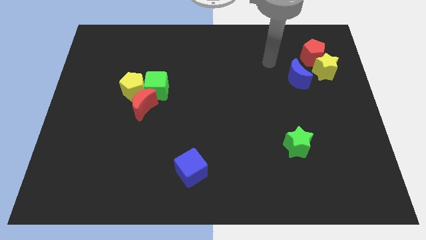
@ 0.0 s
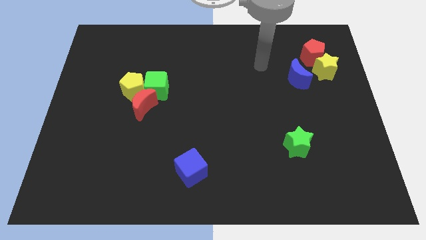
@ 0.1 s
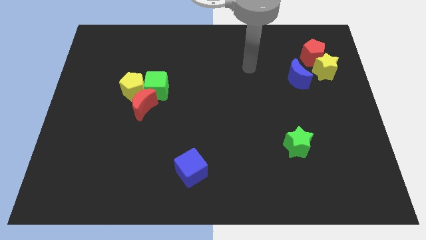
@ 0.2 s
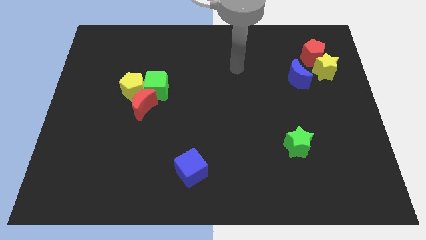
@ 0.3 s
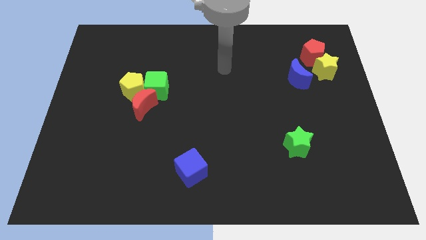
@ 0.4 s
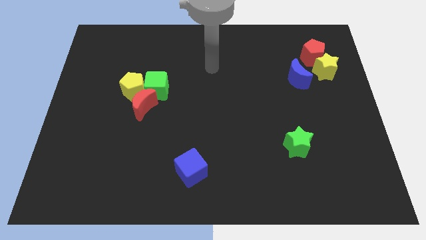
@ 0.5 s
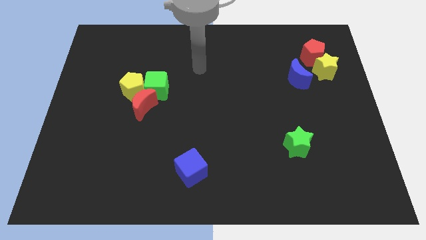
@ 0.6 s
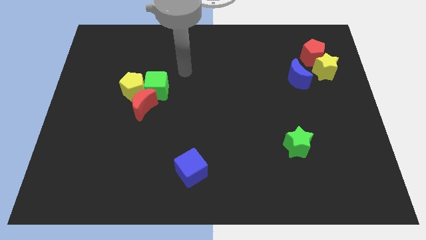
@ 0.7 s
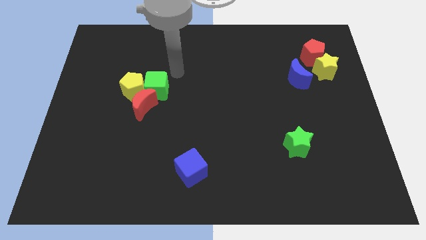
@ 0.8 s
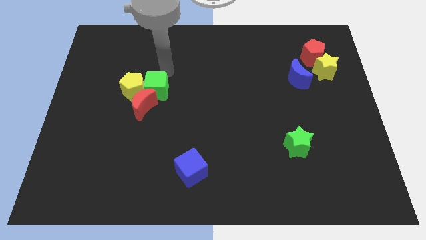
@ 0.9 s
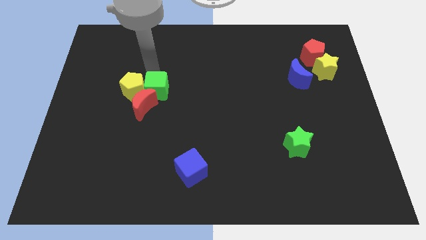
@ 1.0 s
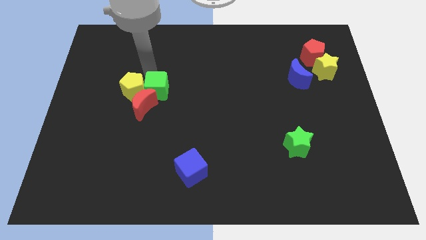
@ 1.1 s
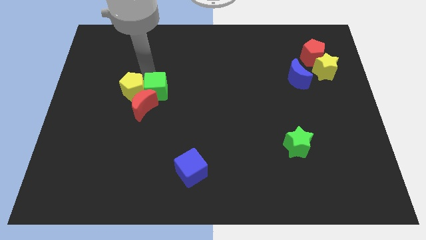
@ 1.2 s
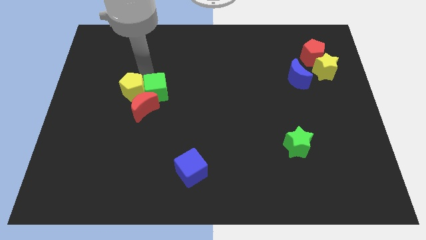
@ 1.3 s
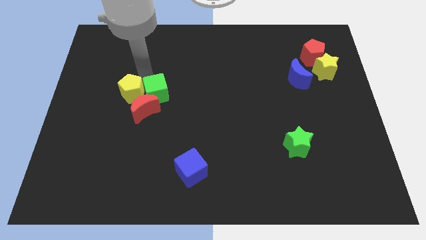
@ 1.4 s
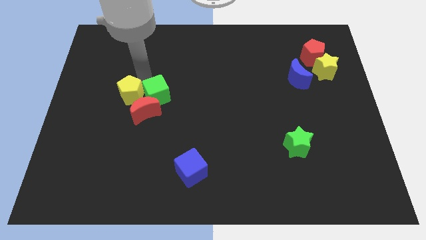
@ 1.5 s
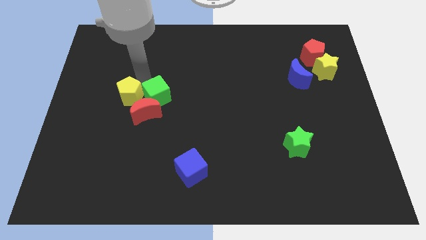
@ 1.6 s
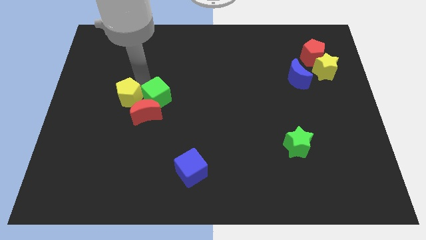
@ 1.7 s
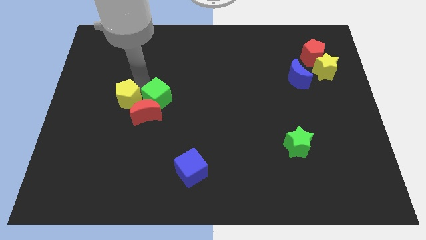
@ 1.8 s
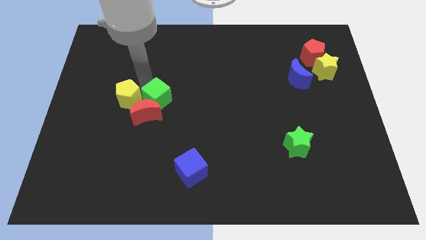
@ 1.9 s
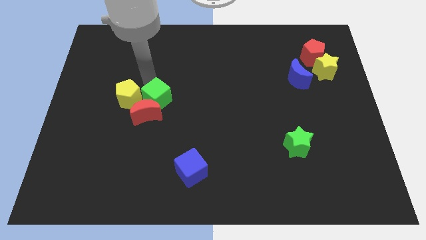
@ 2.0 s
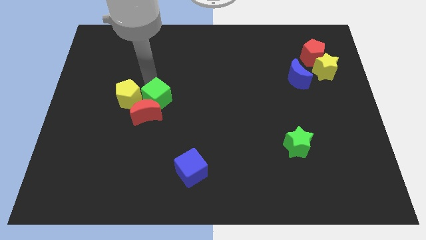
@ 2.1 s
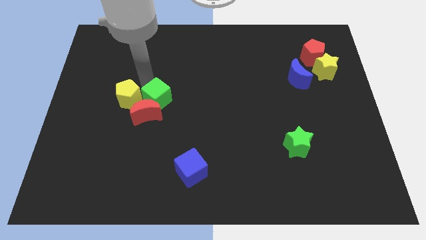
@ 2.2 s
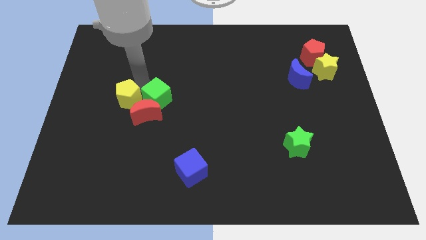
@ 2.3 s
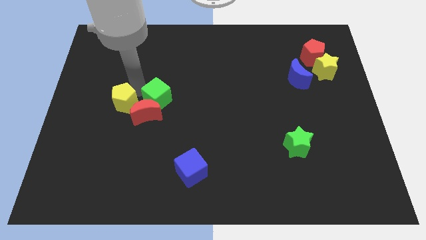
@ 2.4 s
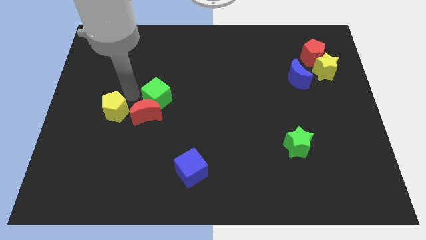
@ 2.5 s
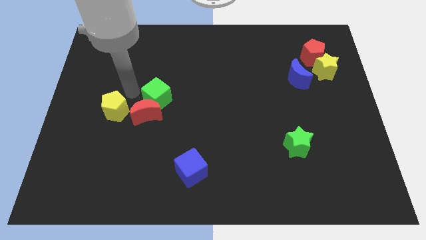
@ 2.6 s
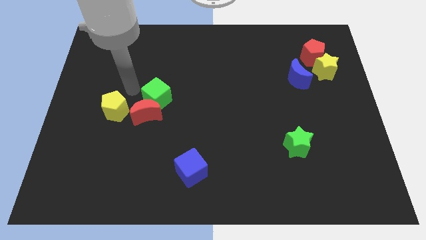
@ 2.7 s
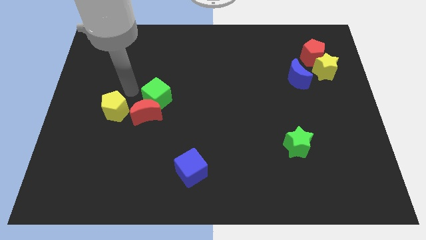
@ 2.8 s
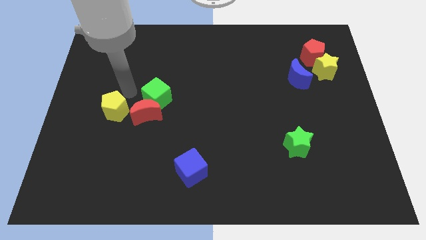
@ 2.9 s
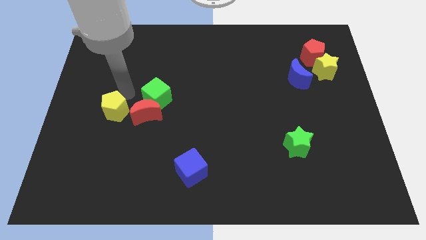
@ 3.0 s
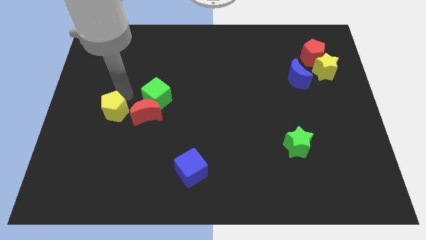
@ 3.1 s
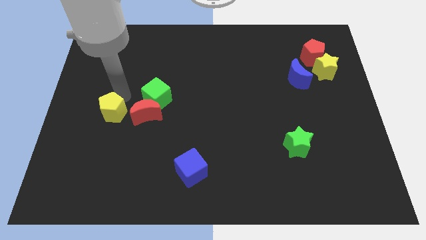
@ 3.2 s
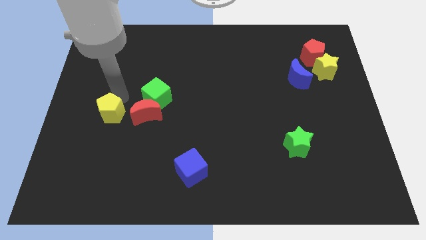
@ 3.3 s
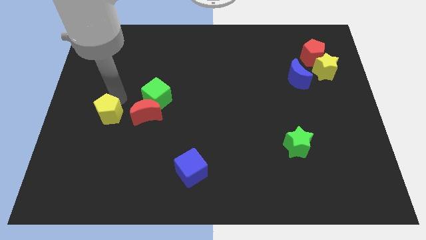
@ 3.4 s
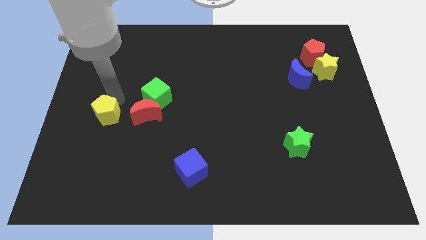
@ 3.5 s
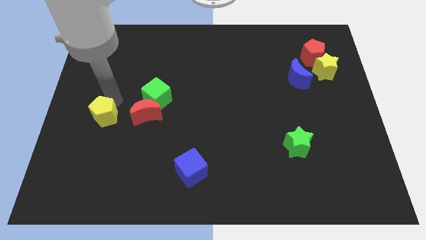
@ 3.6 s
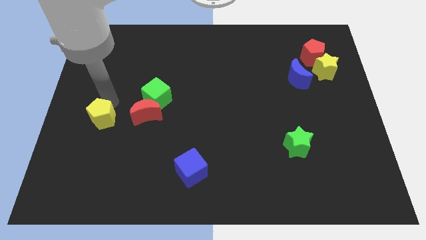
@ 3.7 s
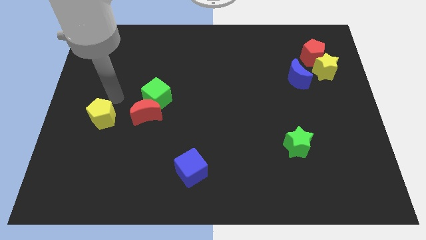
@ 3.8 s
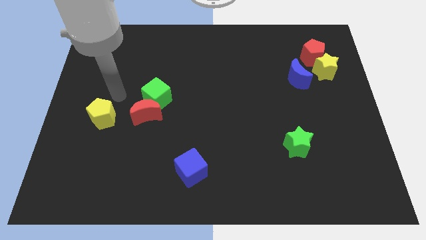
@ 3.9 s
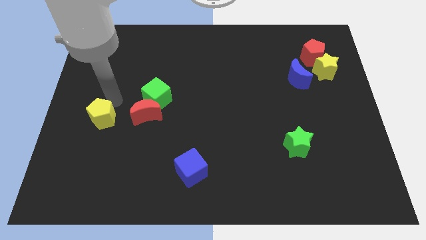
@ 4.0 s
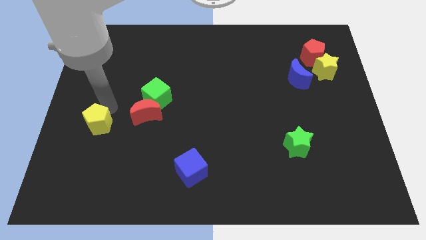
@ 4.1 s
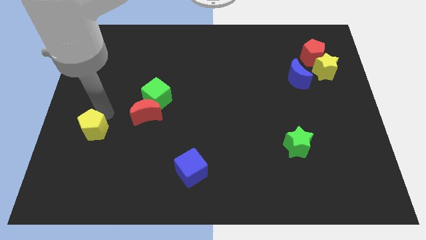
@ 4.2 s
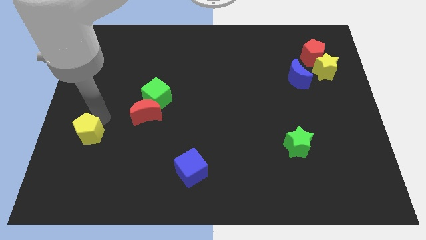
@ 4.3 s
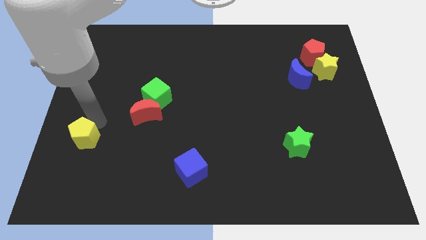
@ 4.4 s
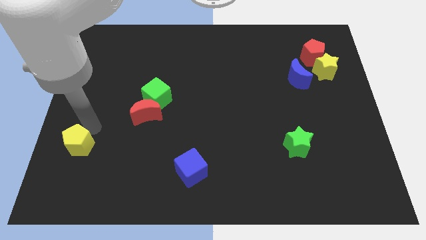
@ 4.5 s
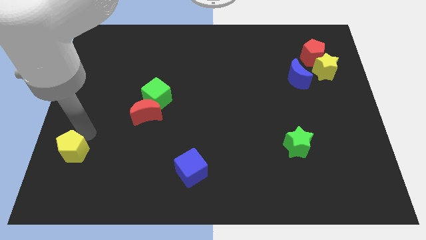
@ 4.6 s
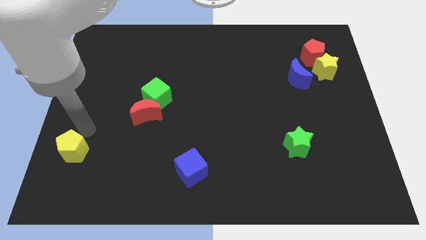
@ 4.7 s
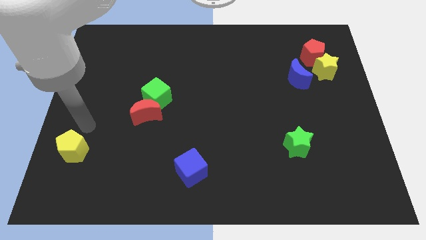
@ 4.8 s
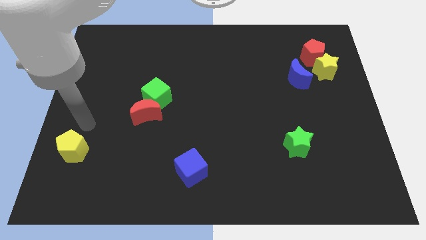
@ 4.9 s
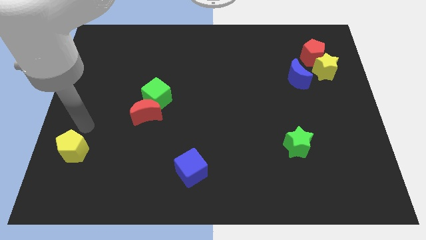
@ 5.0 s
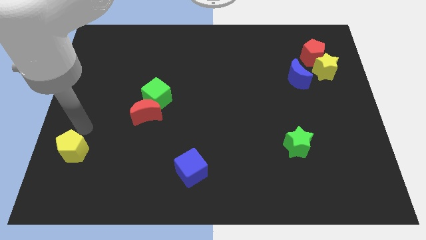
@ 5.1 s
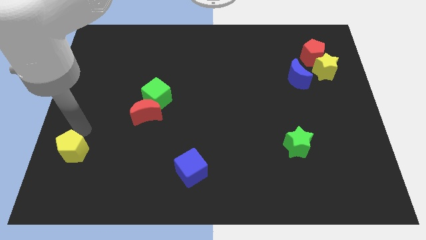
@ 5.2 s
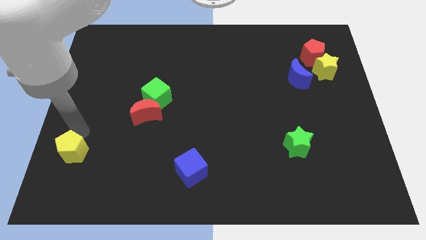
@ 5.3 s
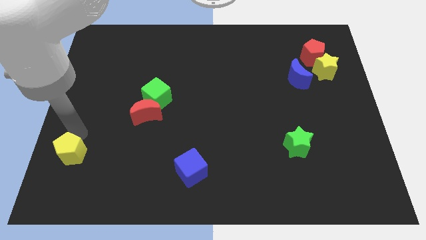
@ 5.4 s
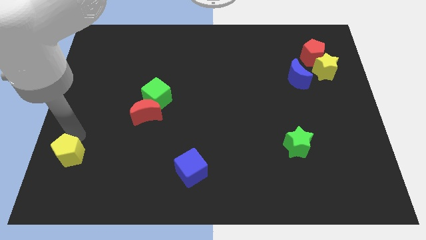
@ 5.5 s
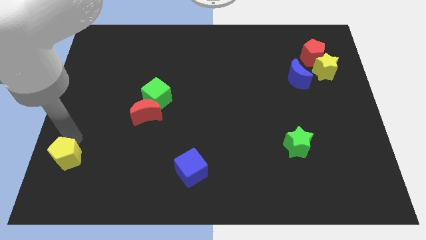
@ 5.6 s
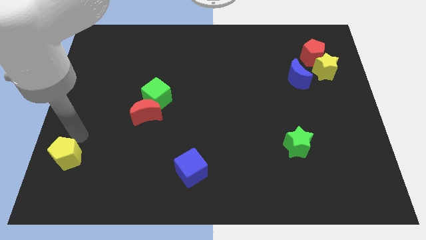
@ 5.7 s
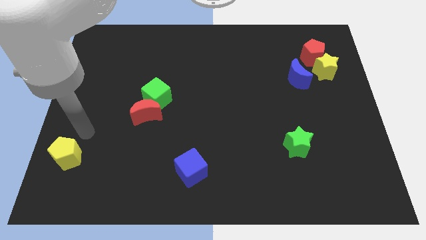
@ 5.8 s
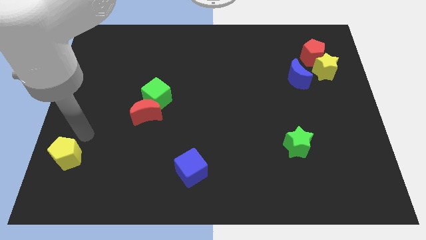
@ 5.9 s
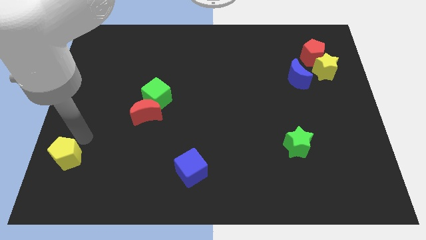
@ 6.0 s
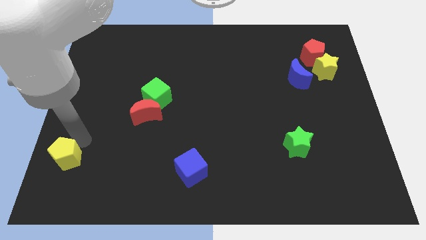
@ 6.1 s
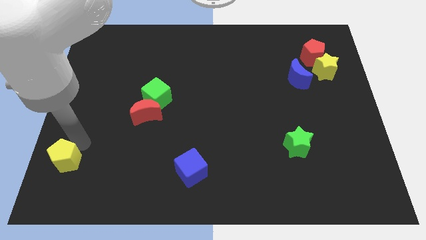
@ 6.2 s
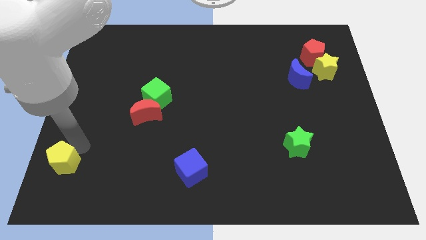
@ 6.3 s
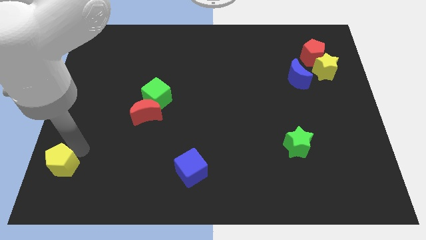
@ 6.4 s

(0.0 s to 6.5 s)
move the yellow pentagon to the bottom left

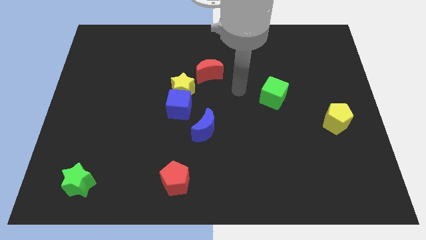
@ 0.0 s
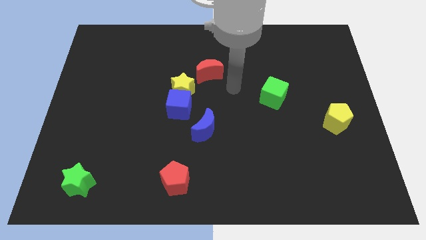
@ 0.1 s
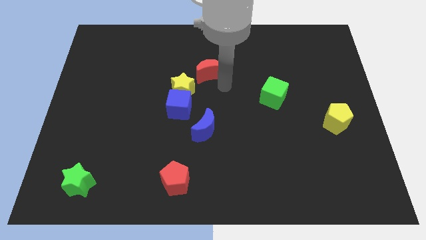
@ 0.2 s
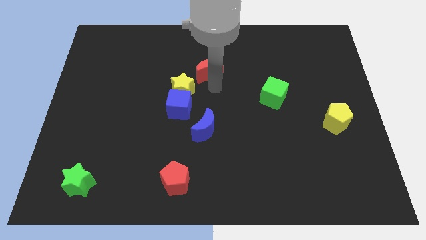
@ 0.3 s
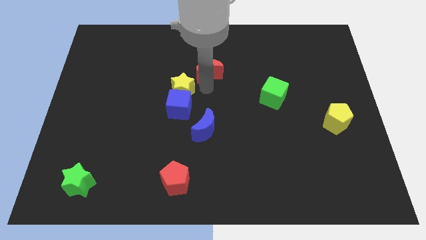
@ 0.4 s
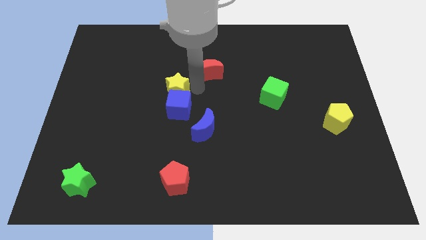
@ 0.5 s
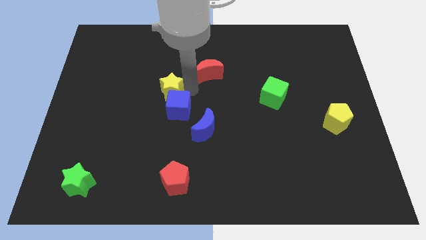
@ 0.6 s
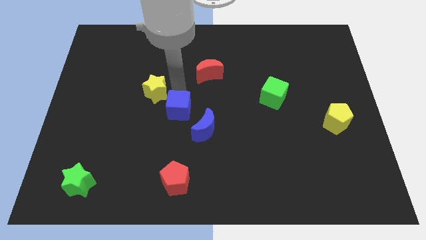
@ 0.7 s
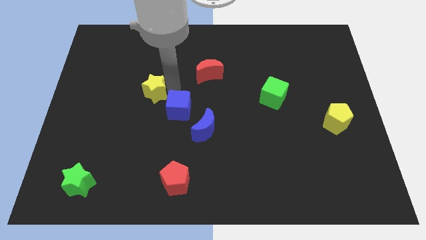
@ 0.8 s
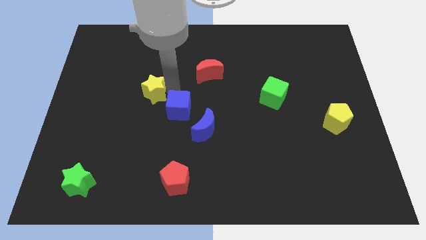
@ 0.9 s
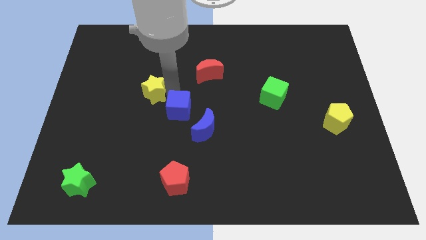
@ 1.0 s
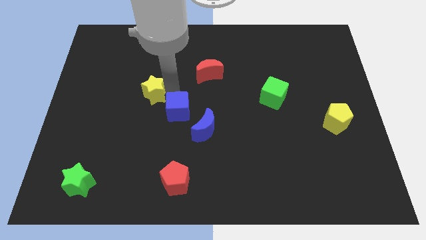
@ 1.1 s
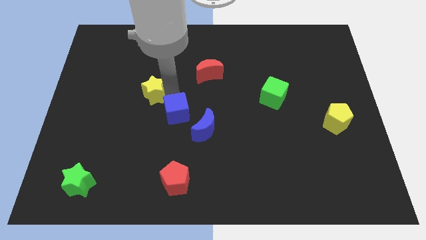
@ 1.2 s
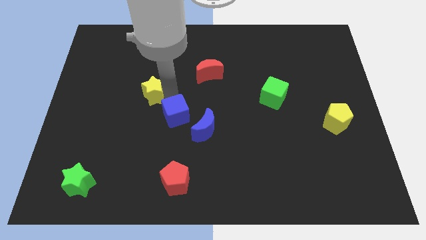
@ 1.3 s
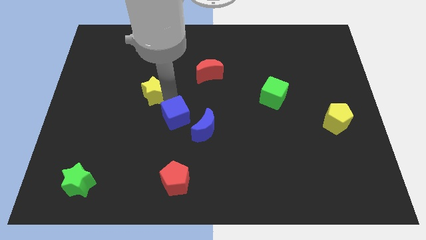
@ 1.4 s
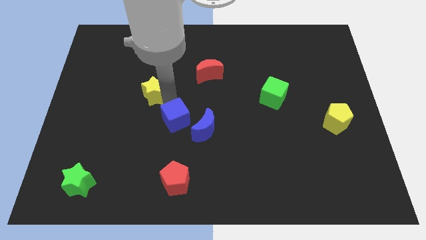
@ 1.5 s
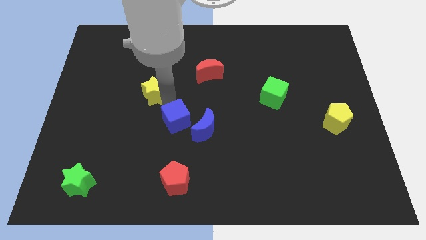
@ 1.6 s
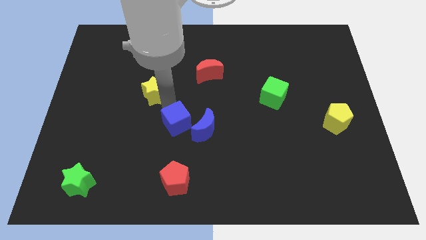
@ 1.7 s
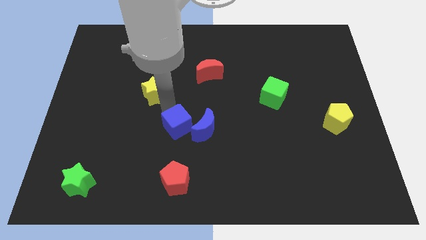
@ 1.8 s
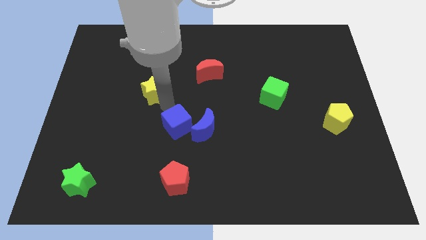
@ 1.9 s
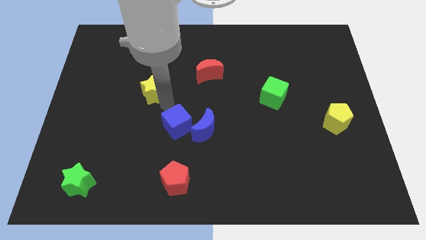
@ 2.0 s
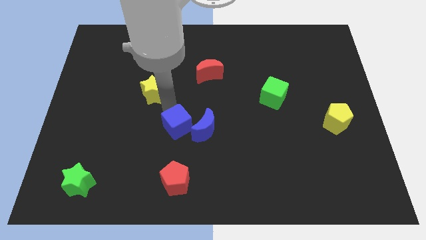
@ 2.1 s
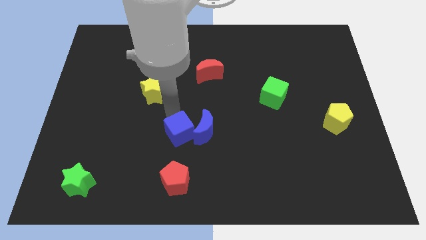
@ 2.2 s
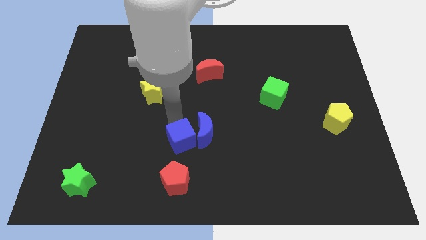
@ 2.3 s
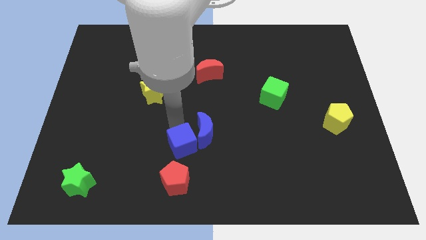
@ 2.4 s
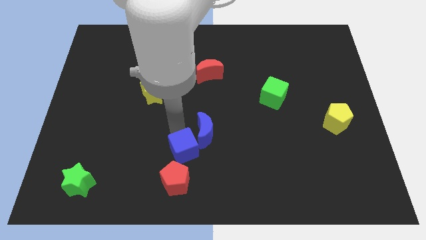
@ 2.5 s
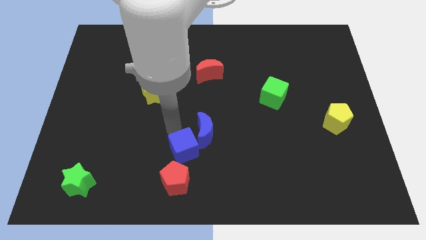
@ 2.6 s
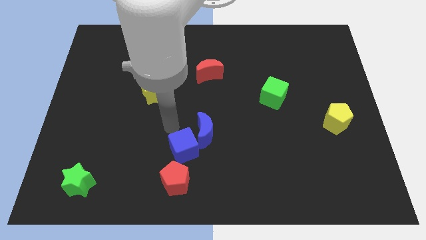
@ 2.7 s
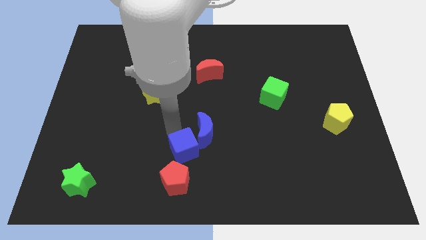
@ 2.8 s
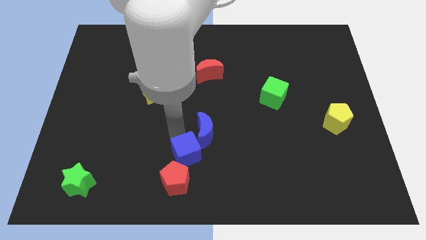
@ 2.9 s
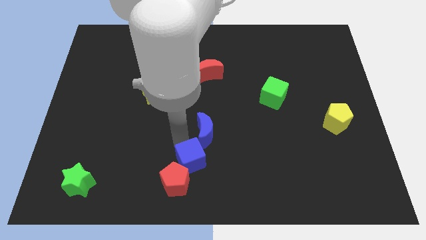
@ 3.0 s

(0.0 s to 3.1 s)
push the blue cube to the bottom
